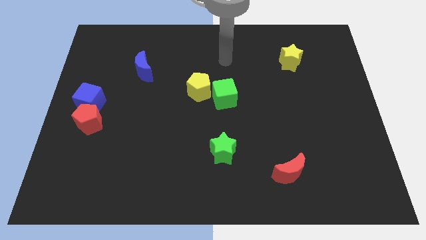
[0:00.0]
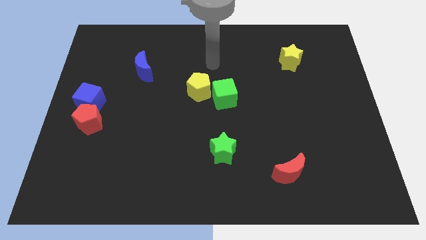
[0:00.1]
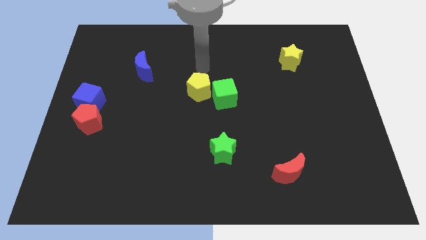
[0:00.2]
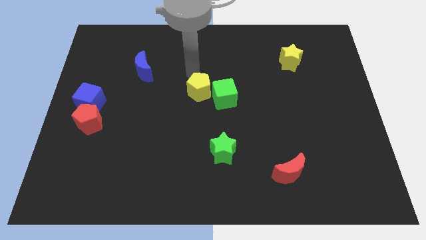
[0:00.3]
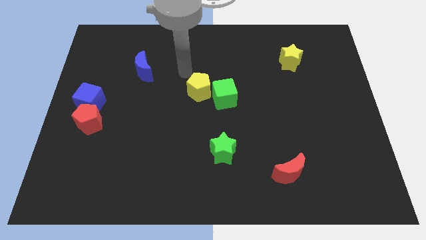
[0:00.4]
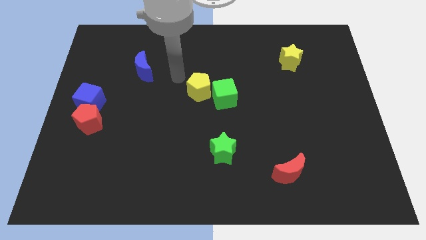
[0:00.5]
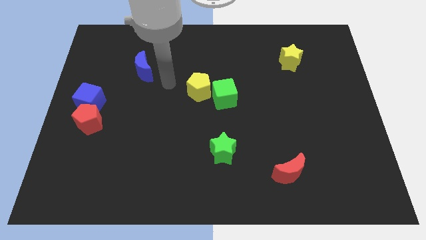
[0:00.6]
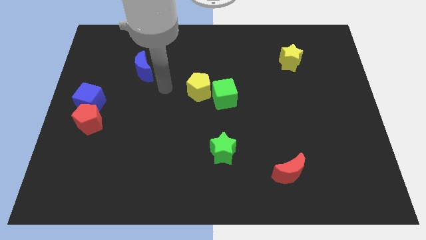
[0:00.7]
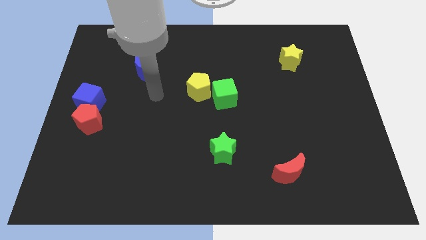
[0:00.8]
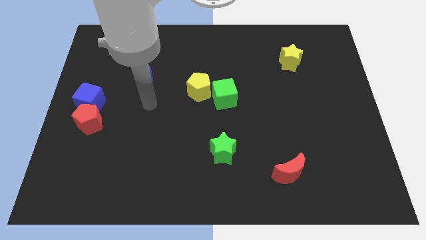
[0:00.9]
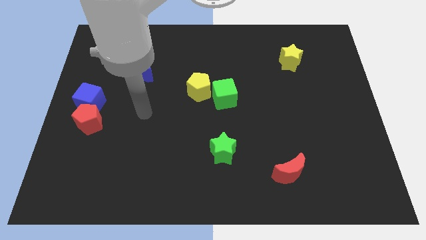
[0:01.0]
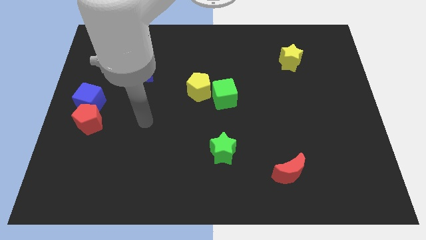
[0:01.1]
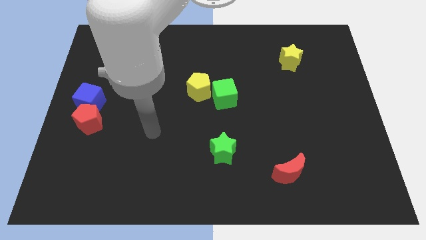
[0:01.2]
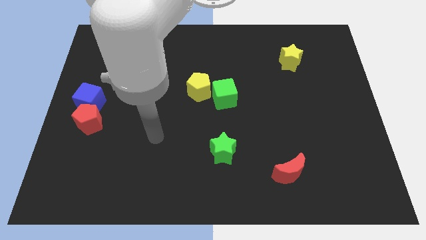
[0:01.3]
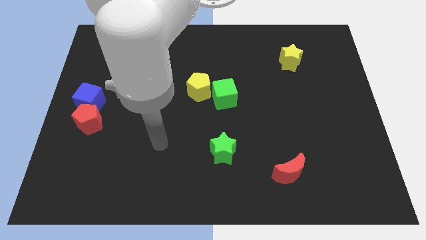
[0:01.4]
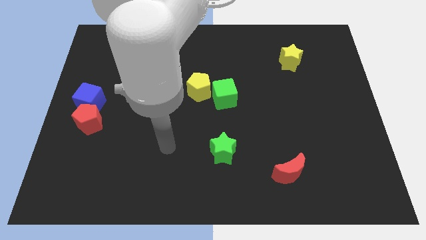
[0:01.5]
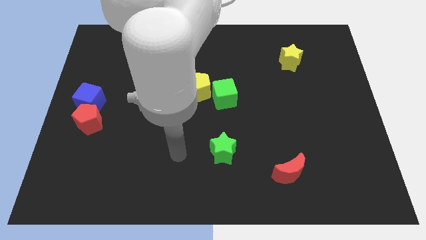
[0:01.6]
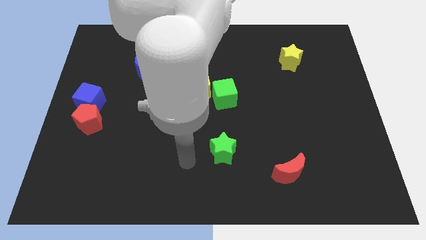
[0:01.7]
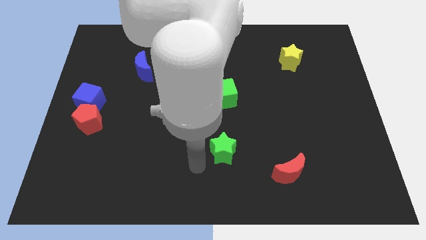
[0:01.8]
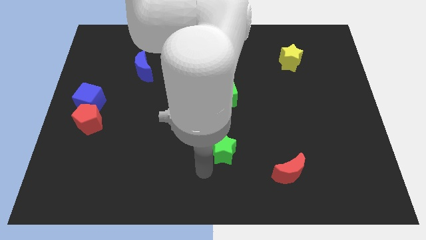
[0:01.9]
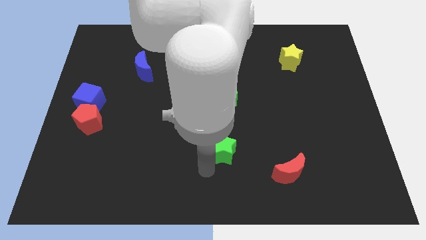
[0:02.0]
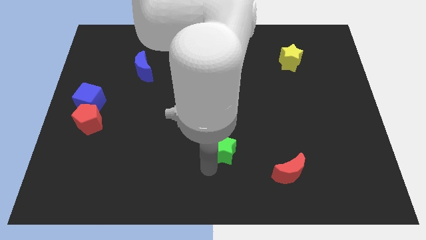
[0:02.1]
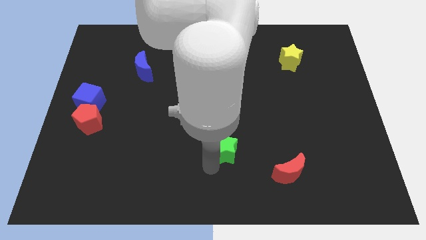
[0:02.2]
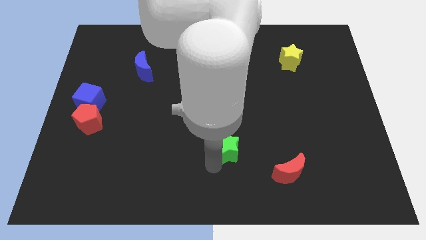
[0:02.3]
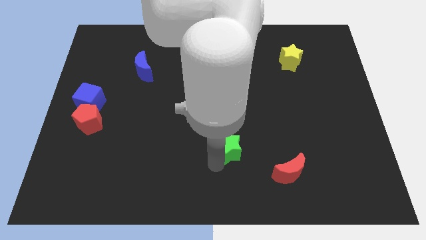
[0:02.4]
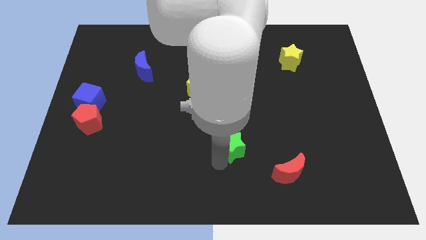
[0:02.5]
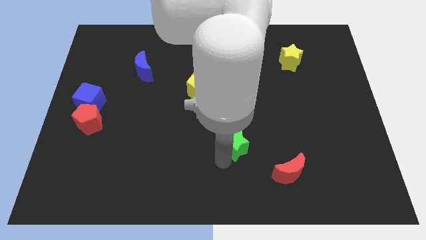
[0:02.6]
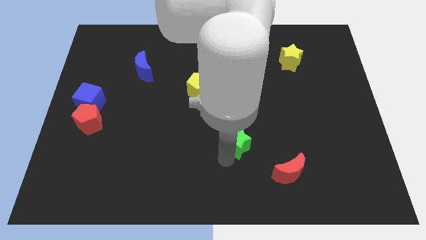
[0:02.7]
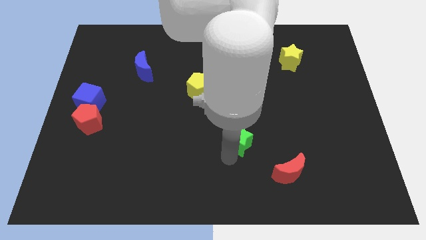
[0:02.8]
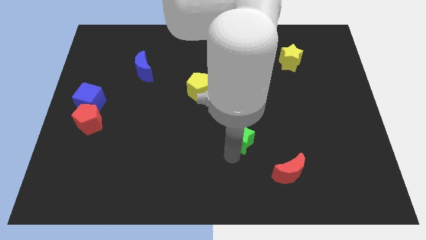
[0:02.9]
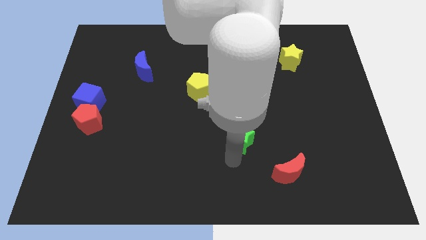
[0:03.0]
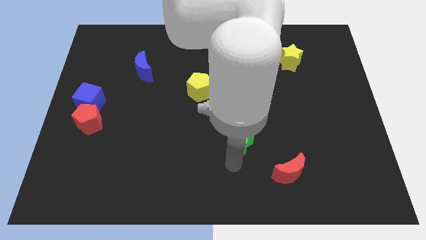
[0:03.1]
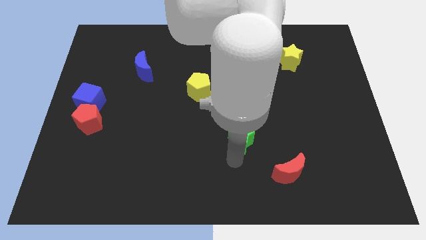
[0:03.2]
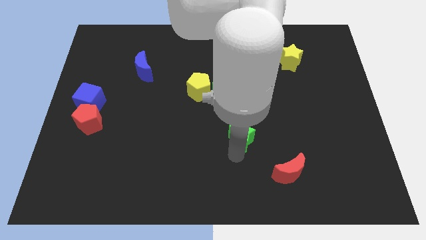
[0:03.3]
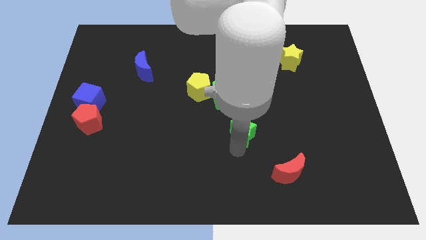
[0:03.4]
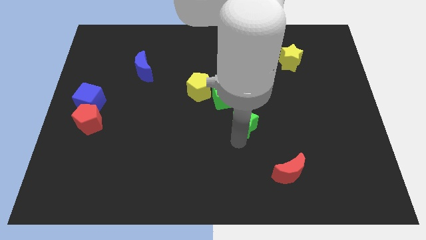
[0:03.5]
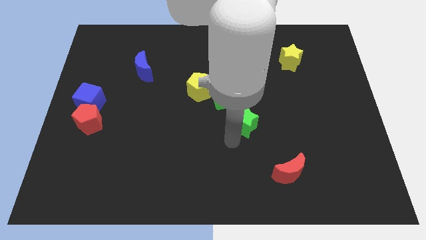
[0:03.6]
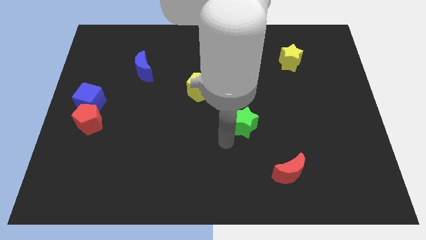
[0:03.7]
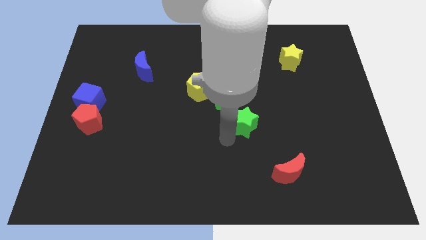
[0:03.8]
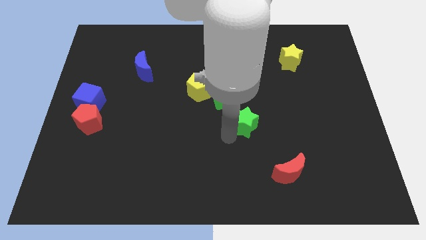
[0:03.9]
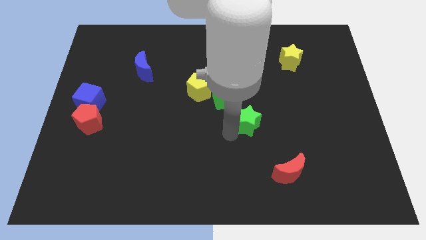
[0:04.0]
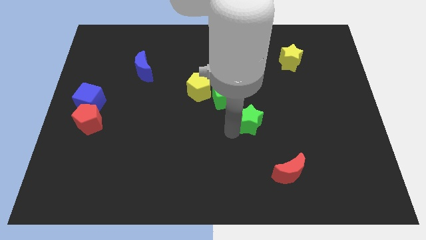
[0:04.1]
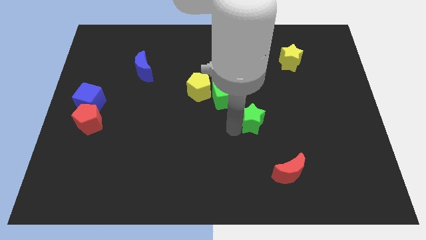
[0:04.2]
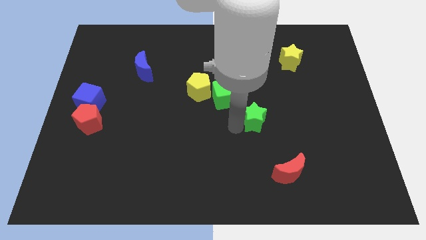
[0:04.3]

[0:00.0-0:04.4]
push the green star upwards somewhat

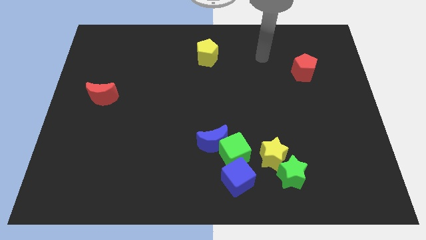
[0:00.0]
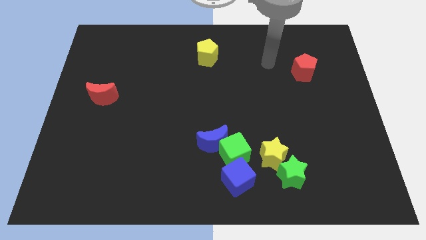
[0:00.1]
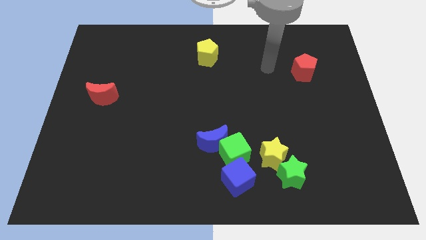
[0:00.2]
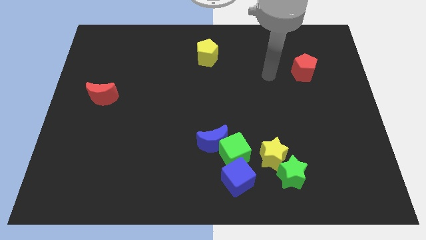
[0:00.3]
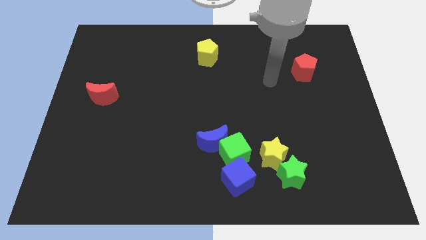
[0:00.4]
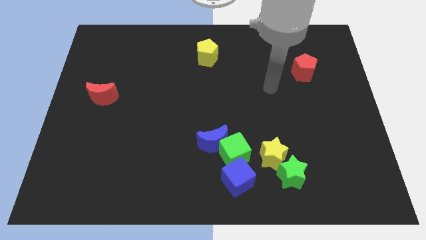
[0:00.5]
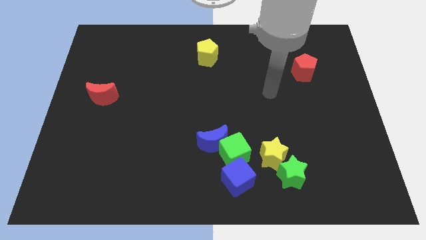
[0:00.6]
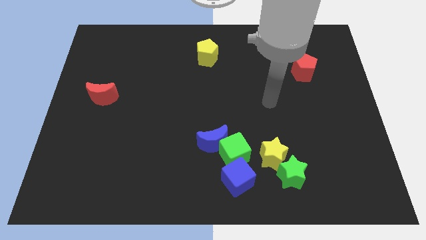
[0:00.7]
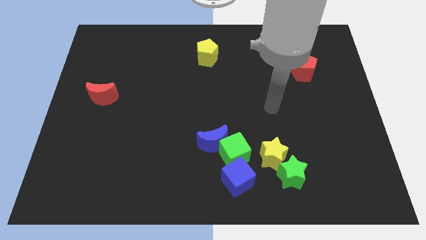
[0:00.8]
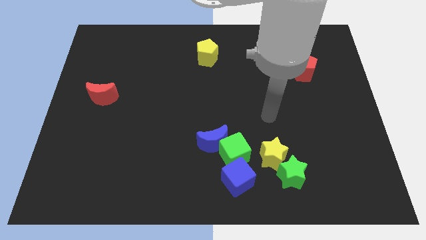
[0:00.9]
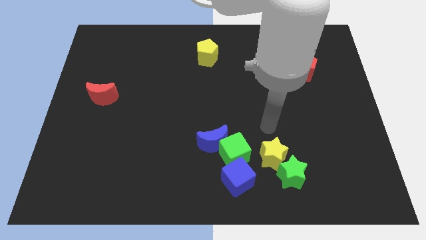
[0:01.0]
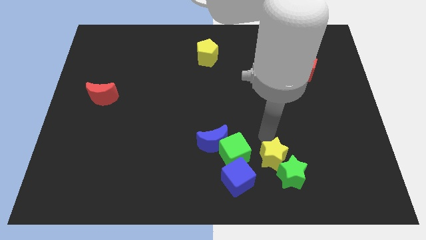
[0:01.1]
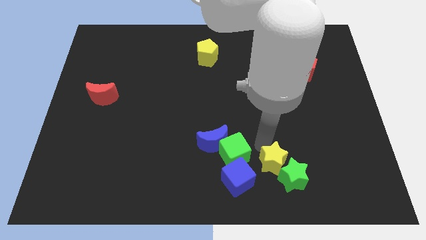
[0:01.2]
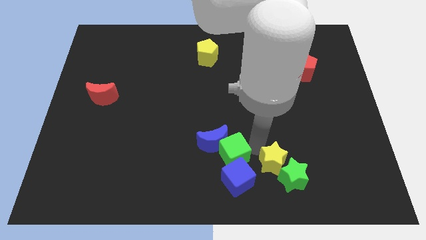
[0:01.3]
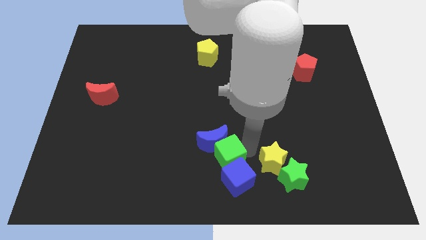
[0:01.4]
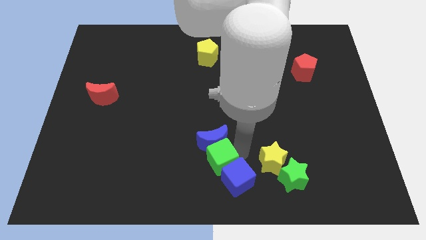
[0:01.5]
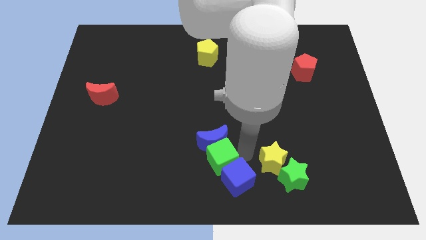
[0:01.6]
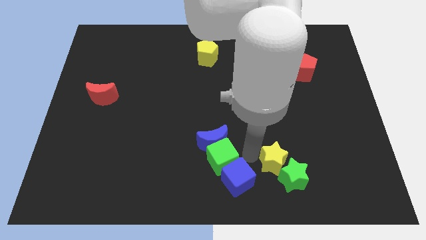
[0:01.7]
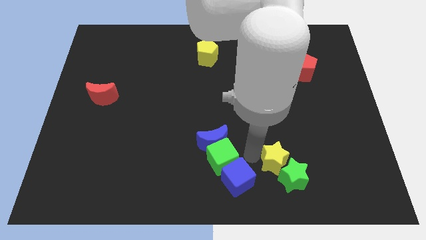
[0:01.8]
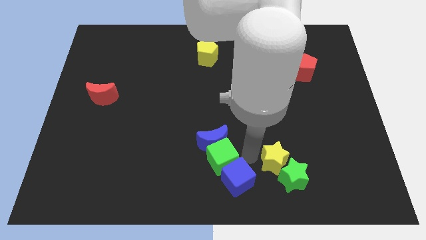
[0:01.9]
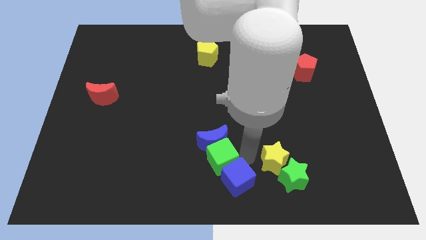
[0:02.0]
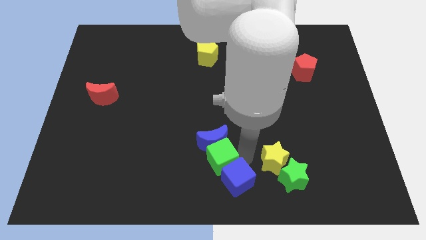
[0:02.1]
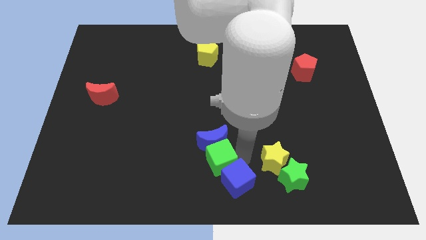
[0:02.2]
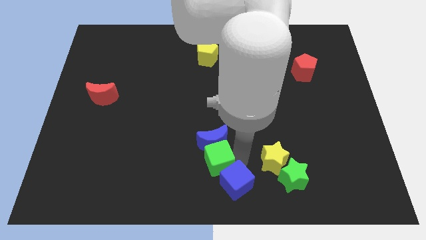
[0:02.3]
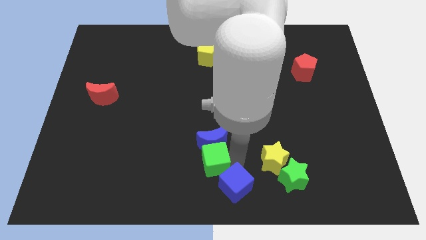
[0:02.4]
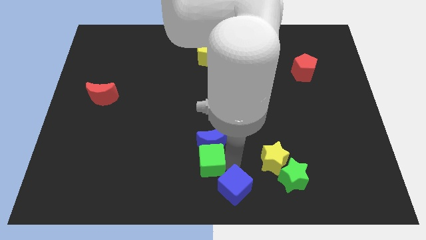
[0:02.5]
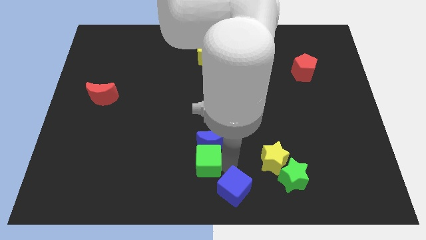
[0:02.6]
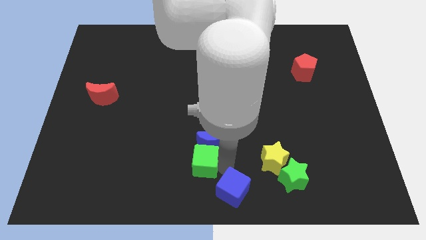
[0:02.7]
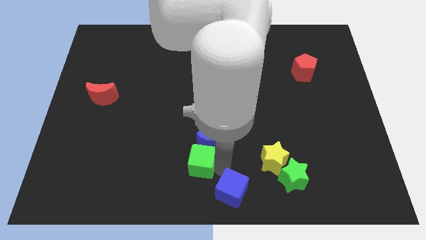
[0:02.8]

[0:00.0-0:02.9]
slightly slide the green cube to the left
